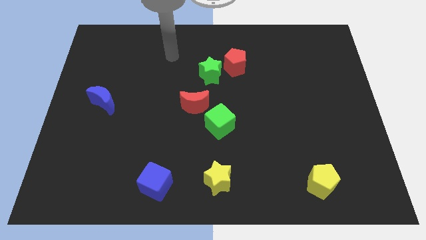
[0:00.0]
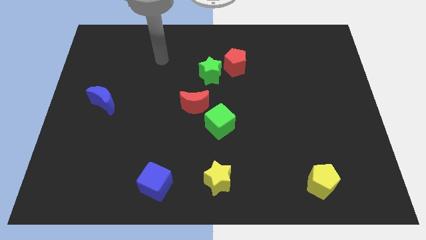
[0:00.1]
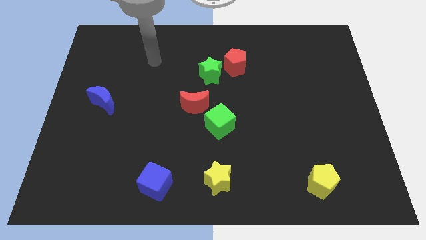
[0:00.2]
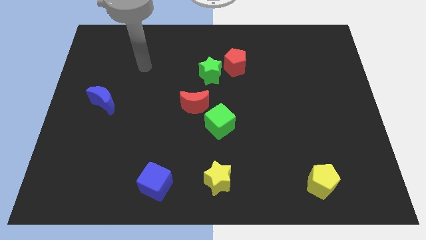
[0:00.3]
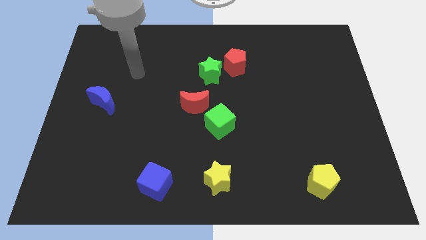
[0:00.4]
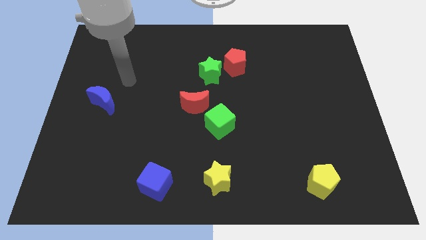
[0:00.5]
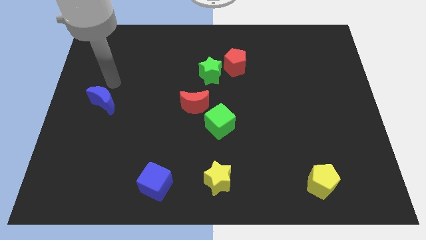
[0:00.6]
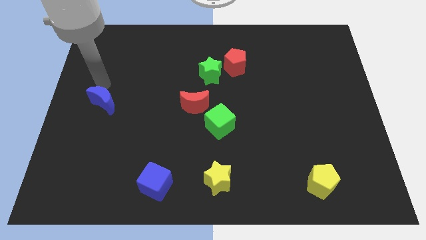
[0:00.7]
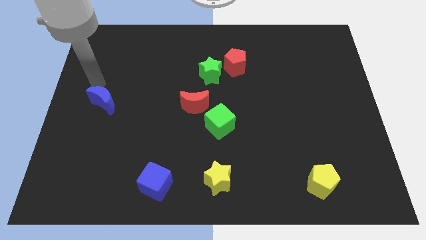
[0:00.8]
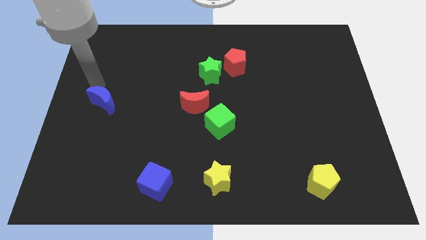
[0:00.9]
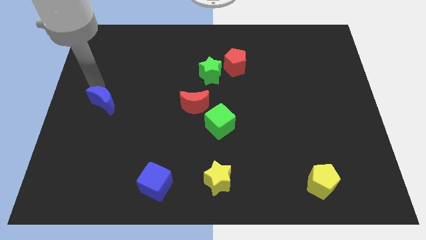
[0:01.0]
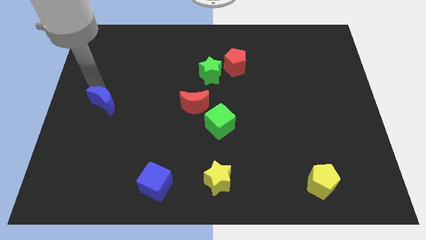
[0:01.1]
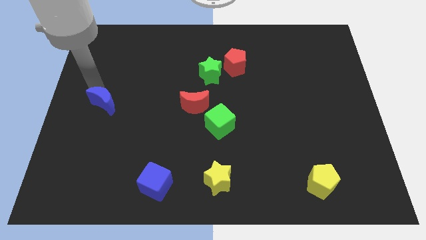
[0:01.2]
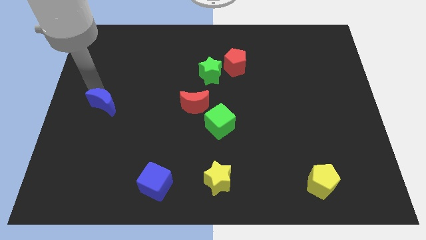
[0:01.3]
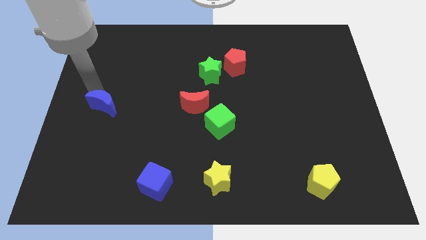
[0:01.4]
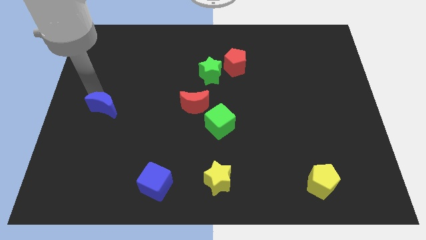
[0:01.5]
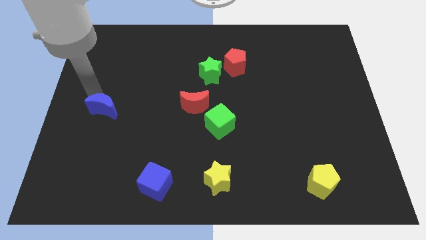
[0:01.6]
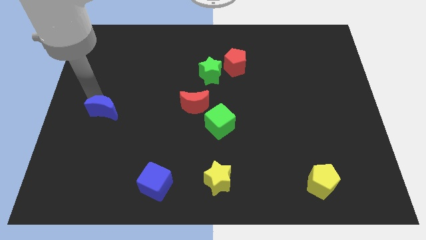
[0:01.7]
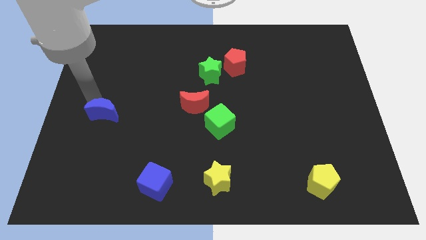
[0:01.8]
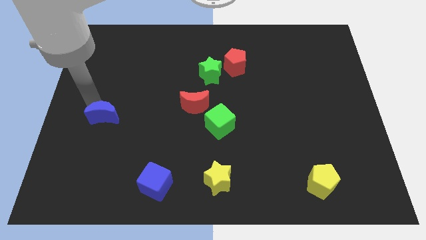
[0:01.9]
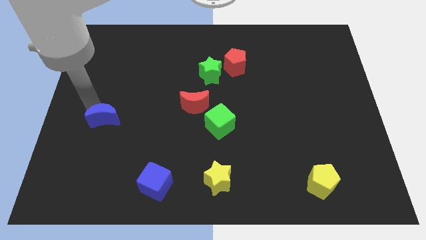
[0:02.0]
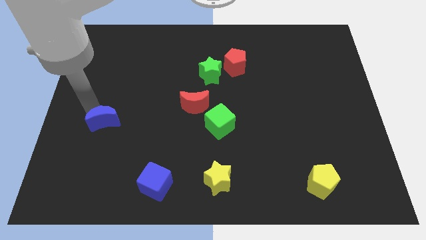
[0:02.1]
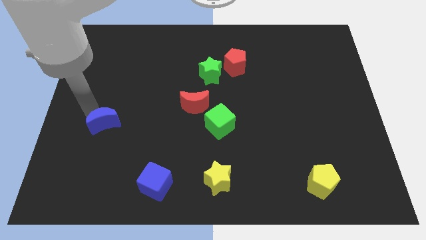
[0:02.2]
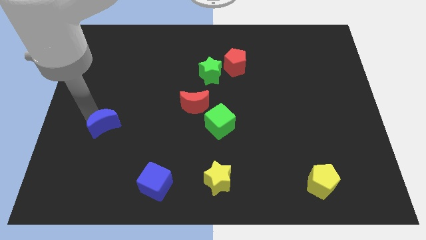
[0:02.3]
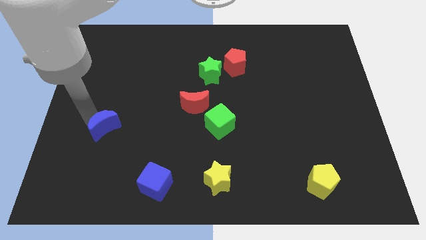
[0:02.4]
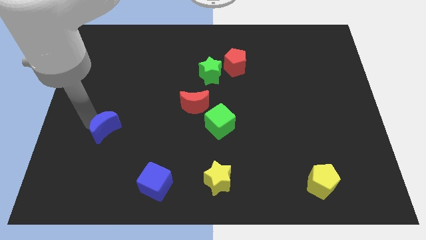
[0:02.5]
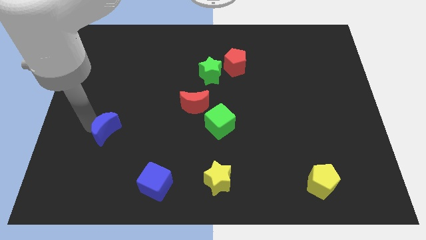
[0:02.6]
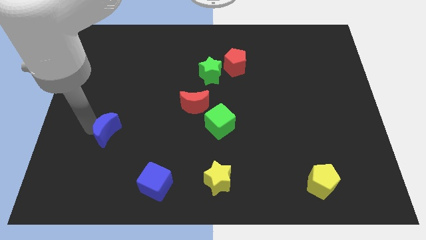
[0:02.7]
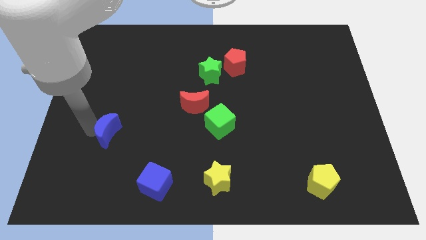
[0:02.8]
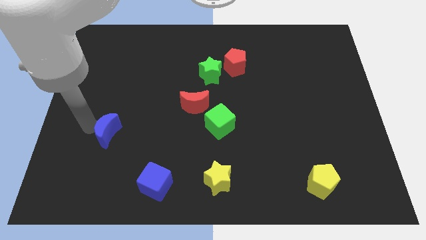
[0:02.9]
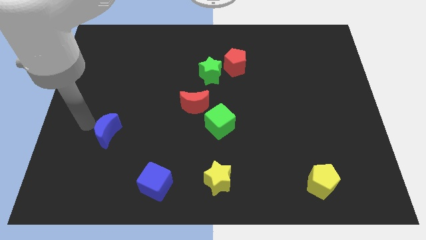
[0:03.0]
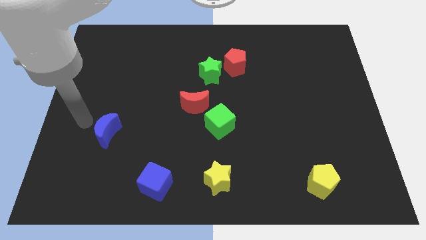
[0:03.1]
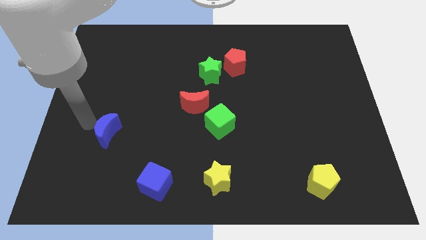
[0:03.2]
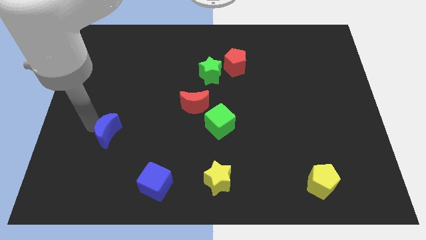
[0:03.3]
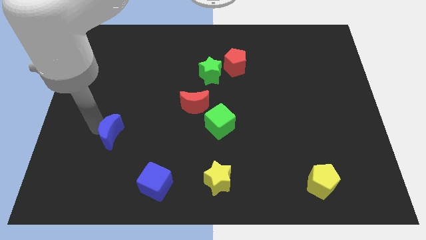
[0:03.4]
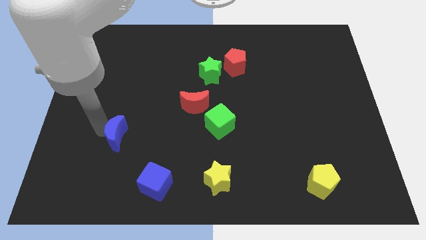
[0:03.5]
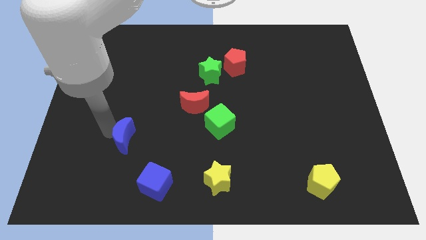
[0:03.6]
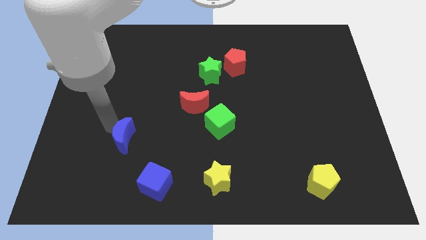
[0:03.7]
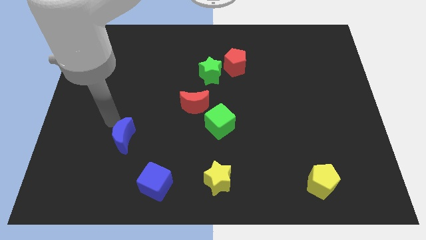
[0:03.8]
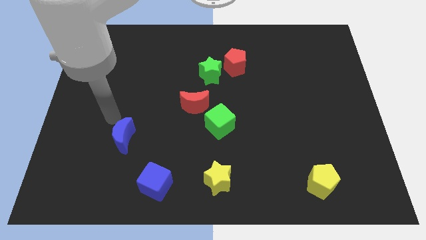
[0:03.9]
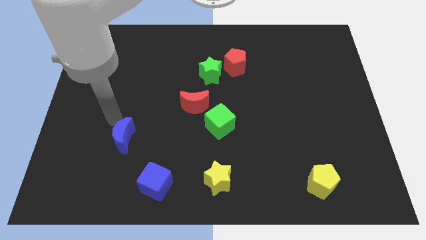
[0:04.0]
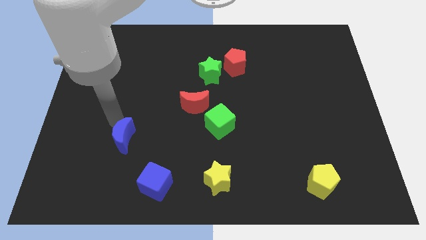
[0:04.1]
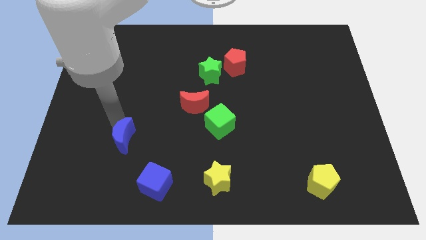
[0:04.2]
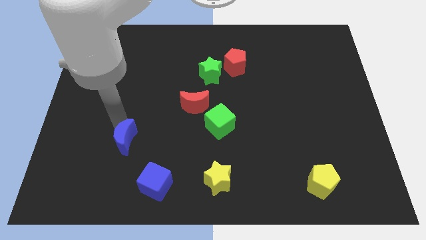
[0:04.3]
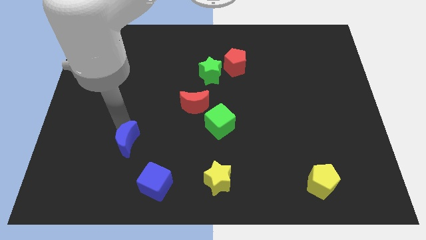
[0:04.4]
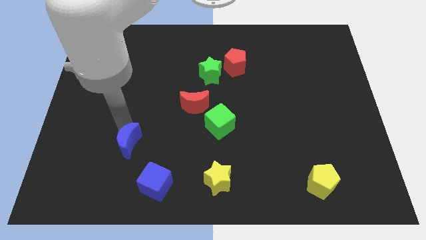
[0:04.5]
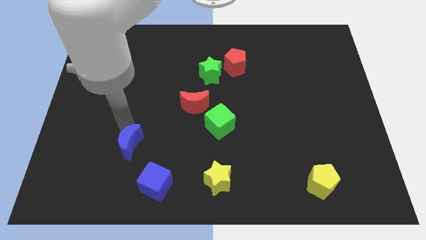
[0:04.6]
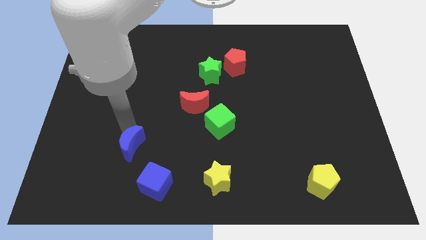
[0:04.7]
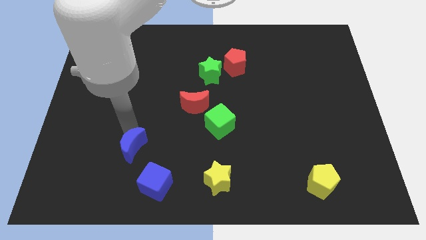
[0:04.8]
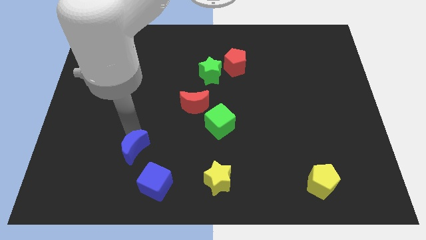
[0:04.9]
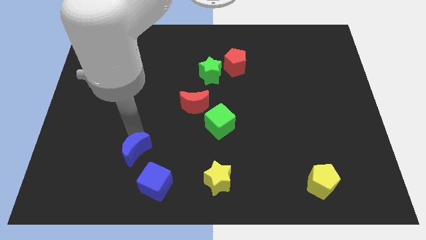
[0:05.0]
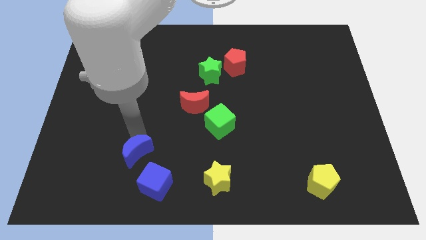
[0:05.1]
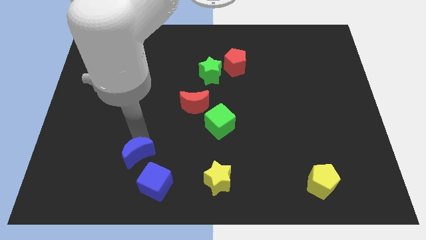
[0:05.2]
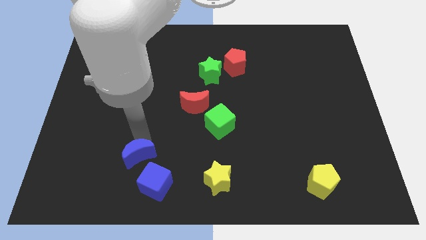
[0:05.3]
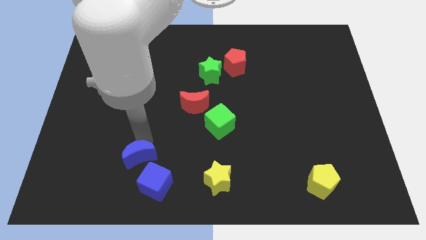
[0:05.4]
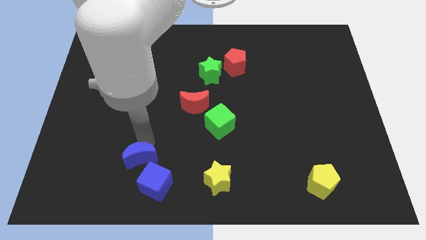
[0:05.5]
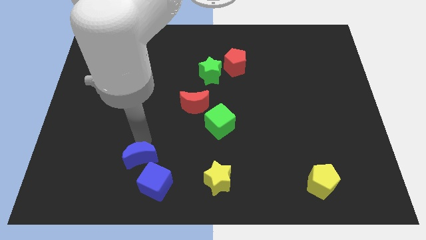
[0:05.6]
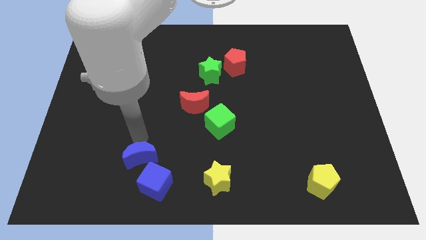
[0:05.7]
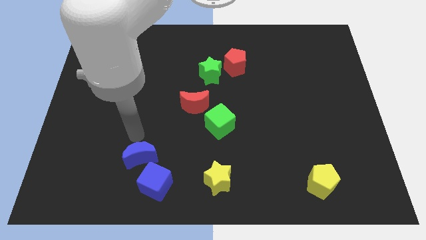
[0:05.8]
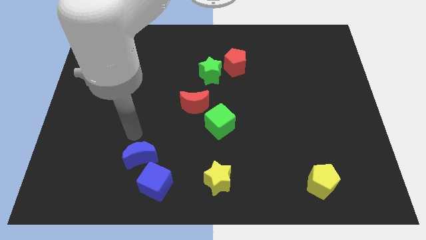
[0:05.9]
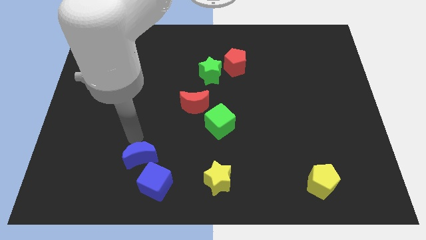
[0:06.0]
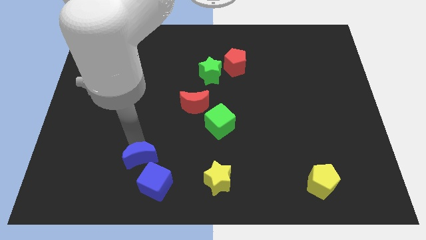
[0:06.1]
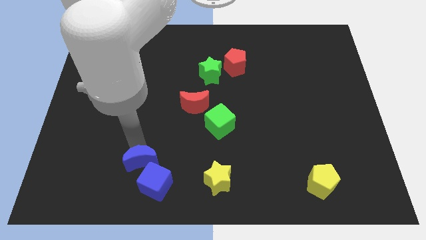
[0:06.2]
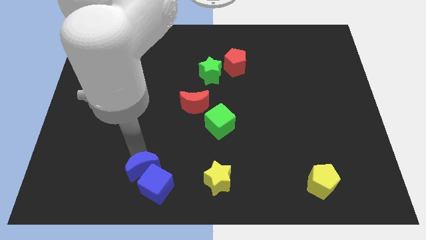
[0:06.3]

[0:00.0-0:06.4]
slide the blue moon next to the blue cube

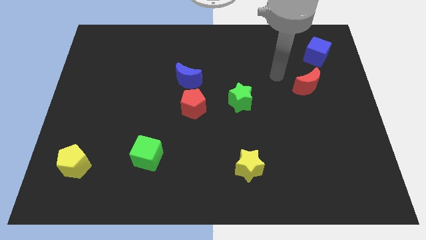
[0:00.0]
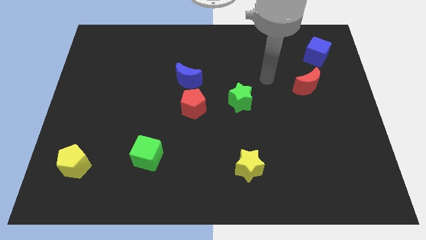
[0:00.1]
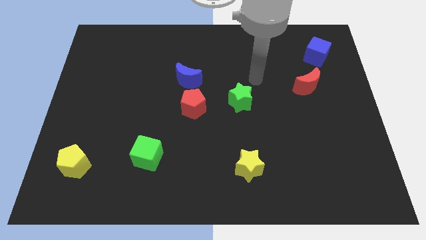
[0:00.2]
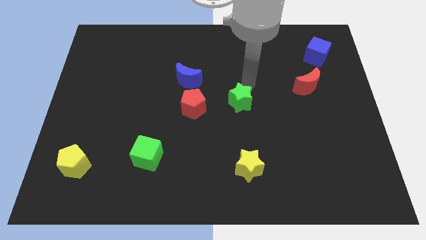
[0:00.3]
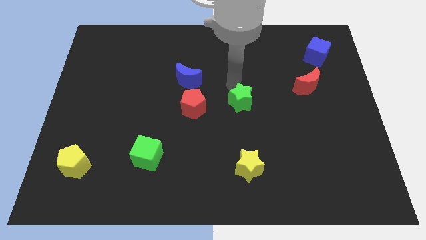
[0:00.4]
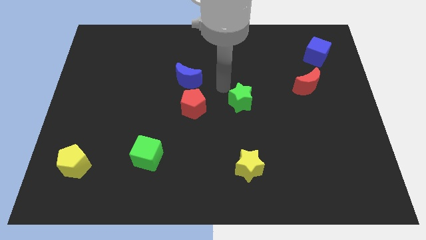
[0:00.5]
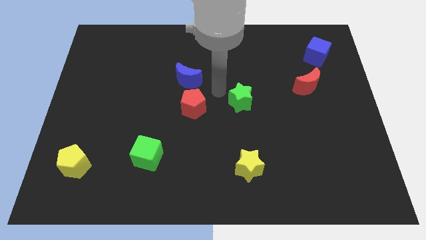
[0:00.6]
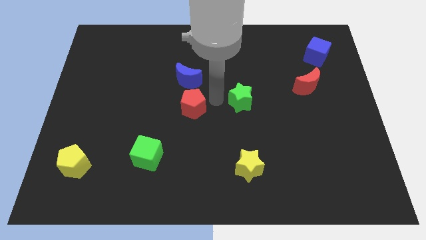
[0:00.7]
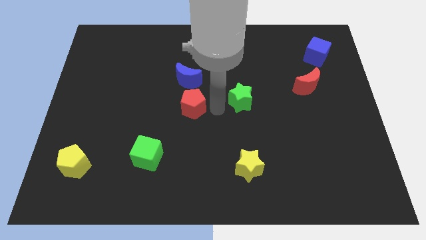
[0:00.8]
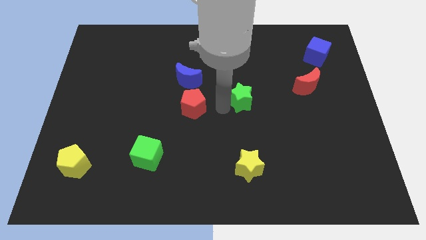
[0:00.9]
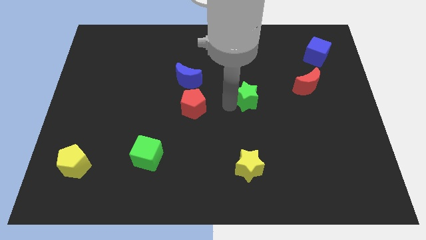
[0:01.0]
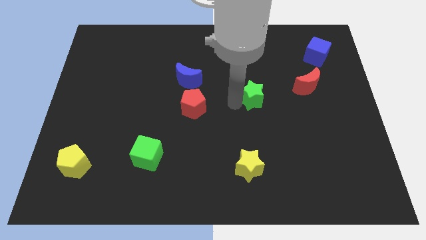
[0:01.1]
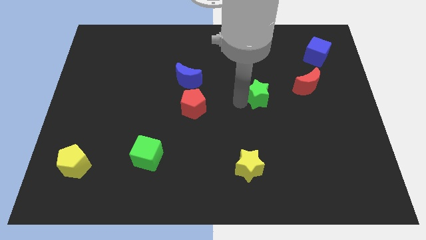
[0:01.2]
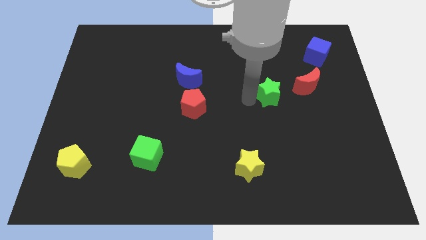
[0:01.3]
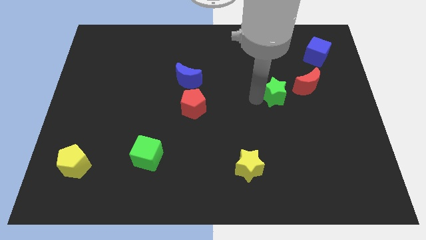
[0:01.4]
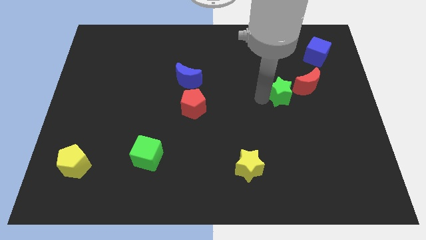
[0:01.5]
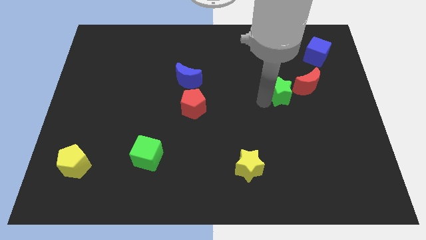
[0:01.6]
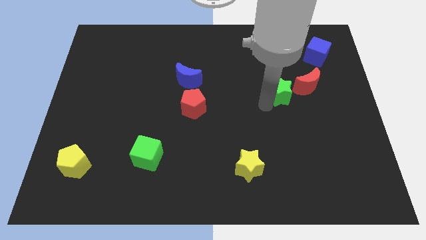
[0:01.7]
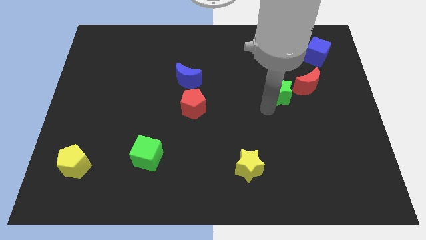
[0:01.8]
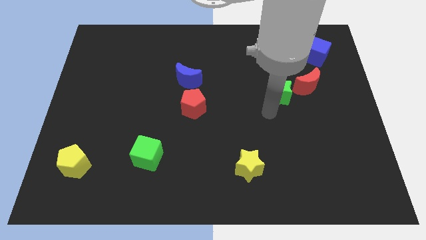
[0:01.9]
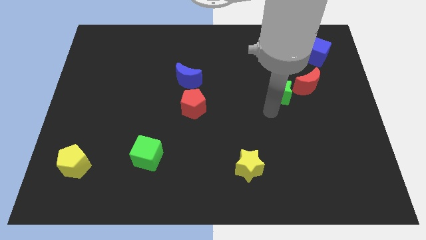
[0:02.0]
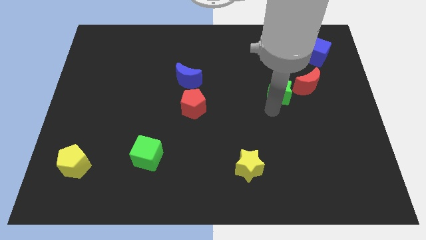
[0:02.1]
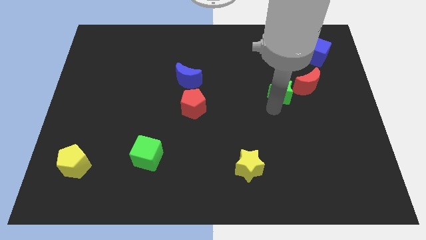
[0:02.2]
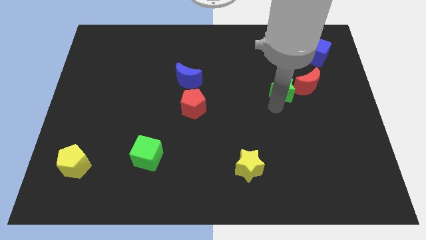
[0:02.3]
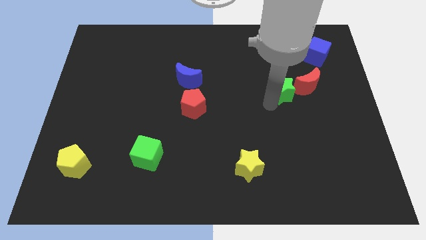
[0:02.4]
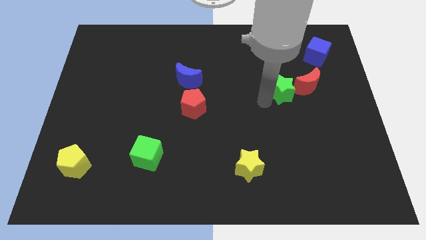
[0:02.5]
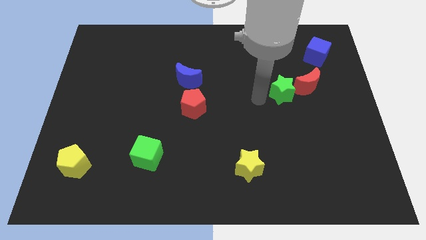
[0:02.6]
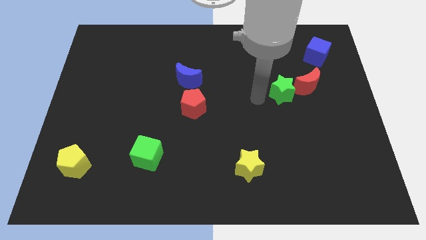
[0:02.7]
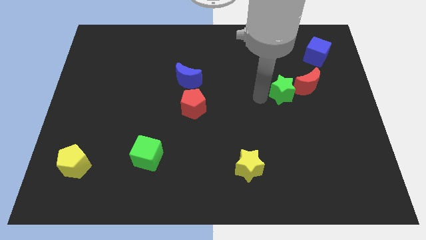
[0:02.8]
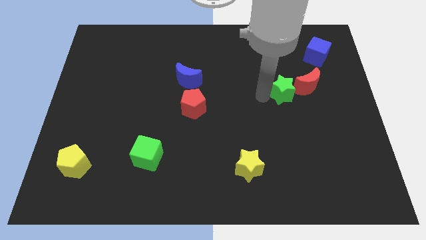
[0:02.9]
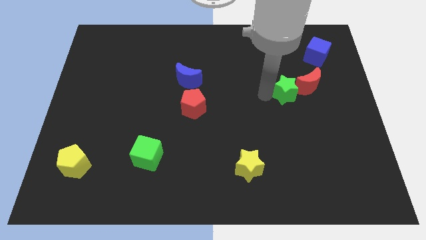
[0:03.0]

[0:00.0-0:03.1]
slide the green star close to the red moon
